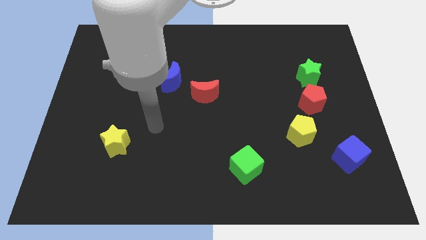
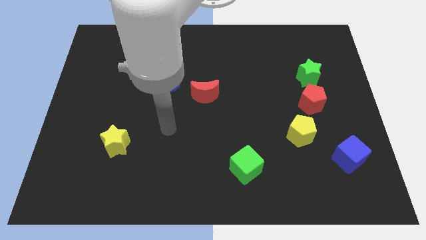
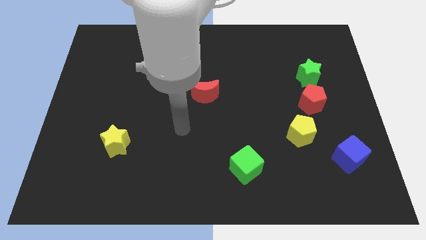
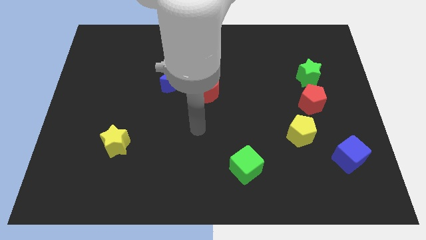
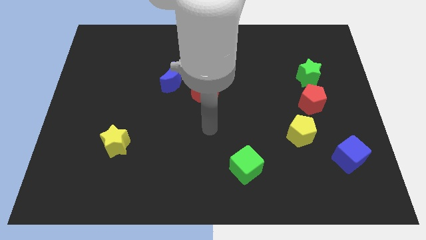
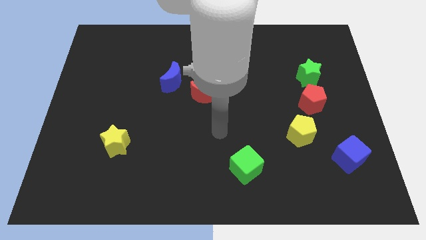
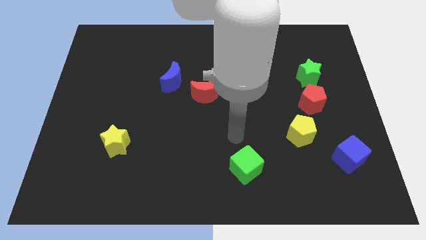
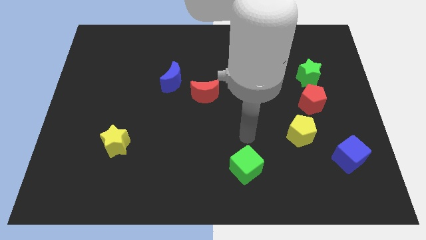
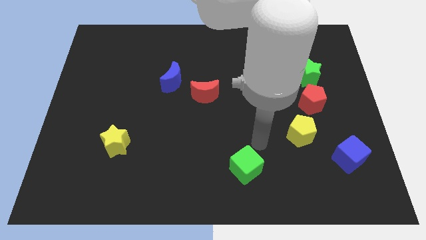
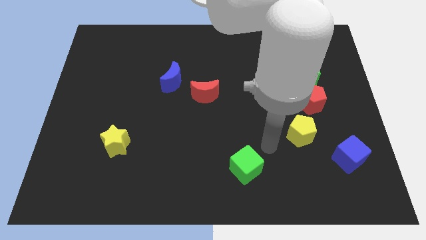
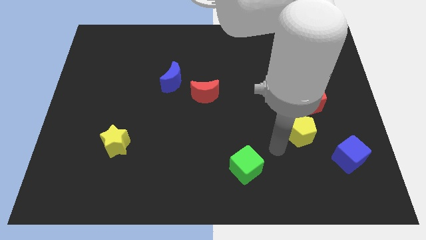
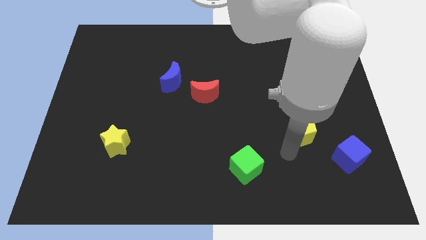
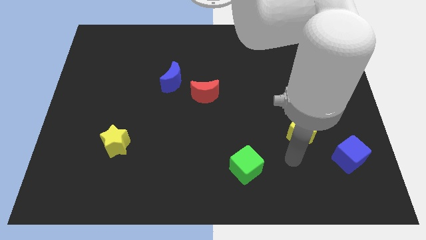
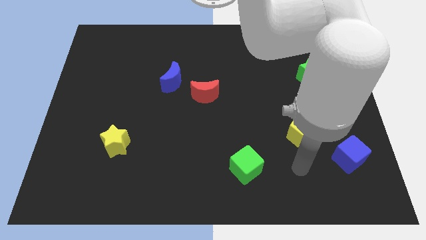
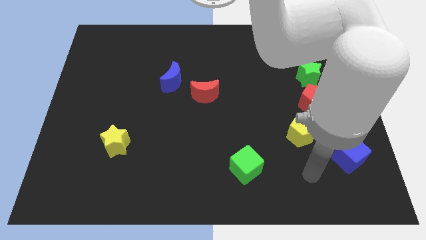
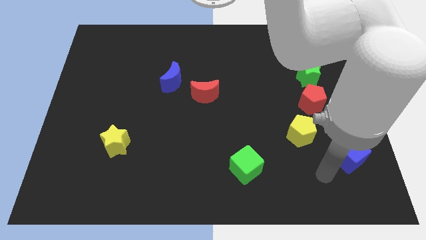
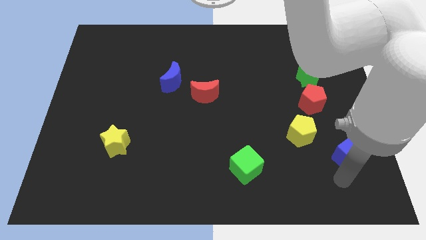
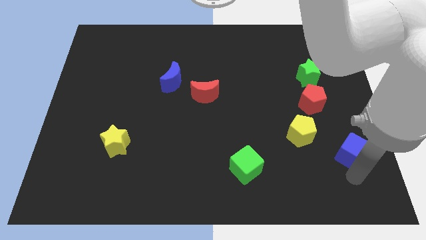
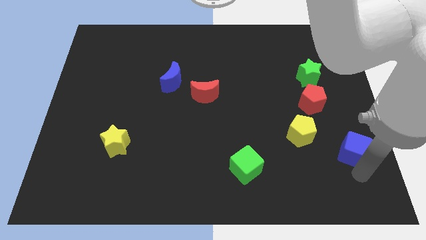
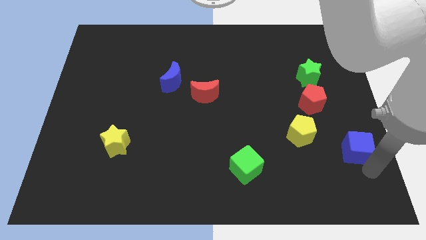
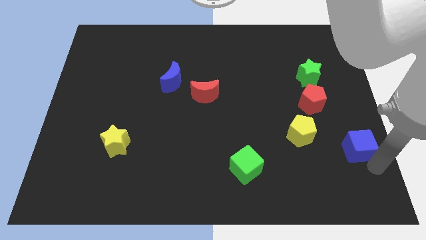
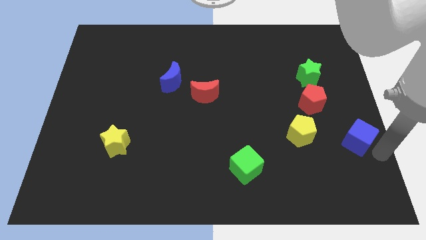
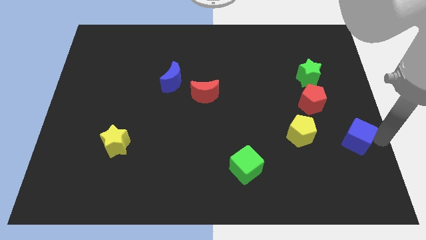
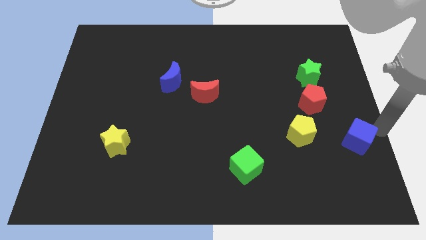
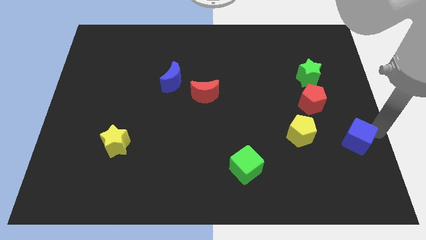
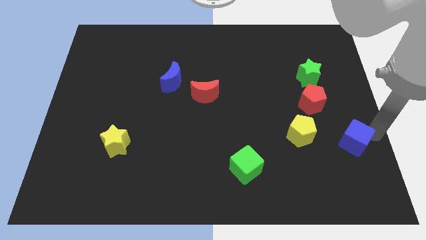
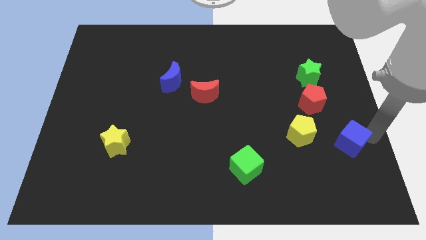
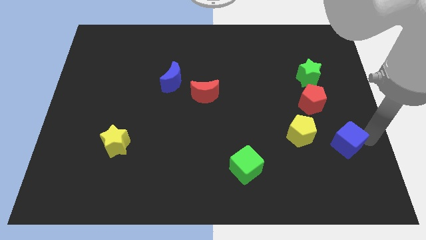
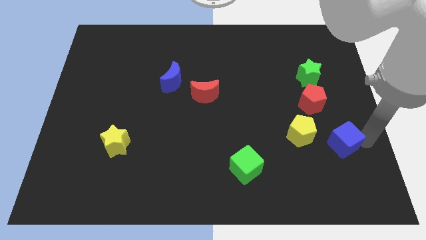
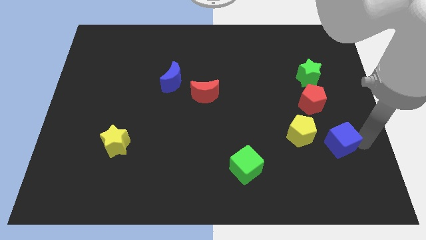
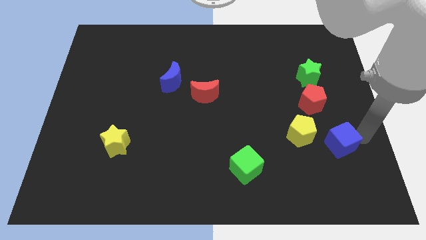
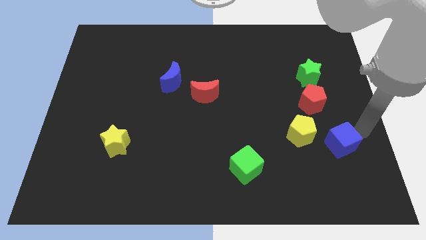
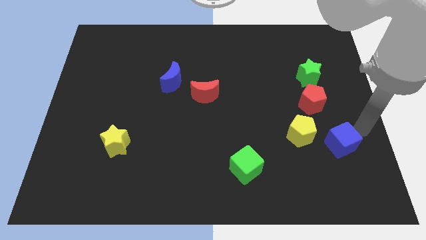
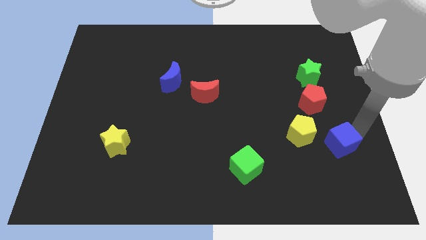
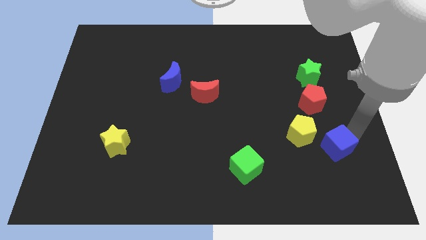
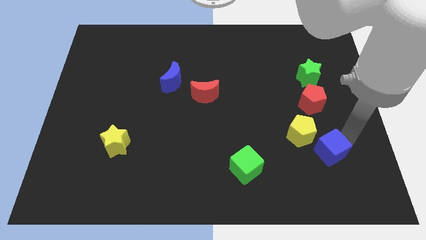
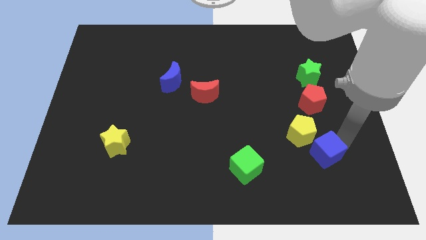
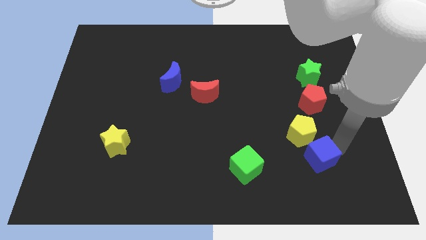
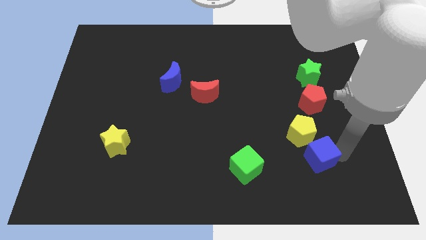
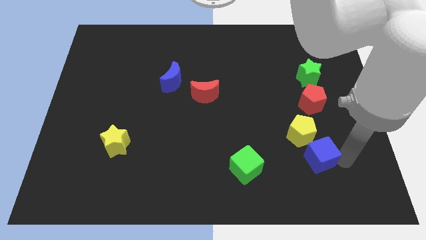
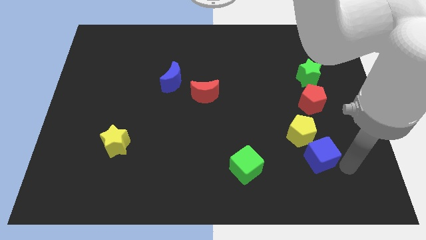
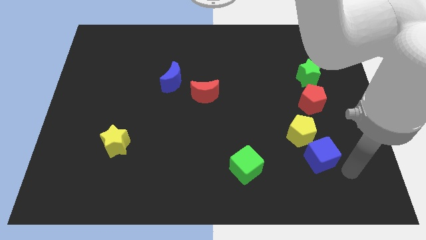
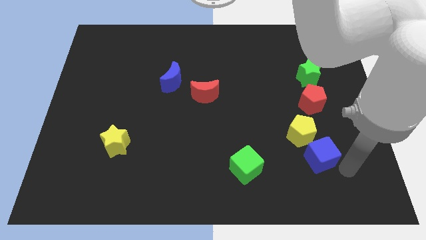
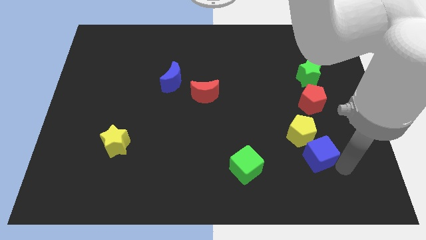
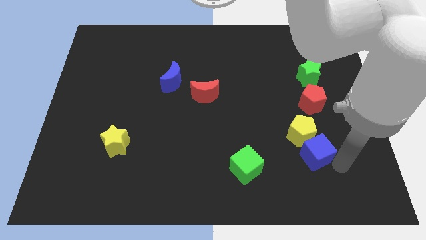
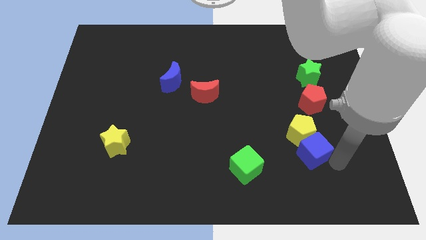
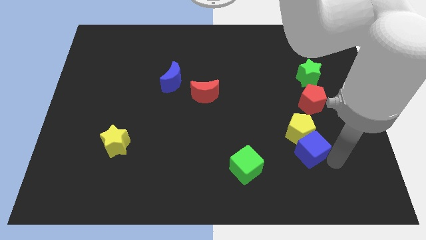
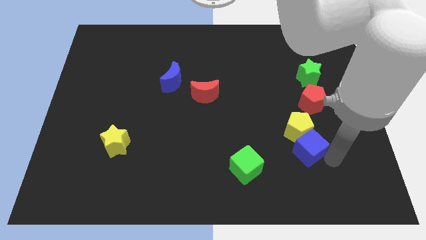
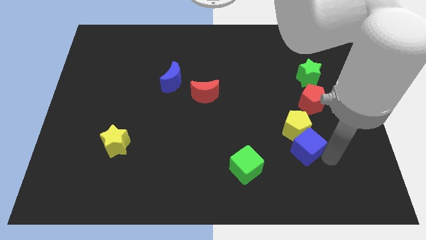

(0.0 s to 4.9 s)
slightly move the blue cube upwards and left

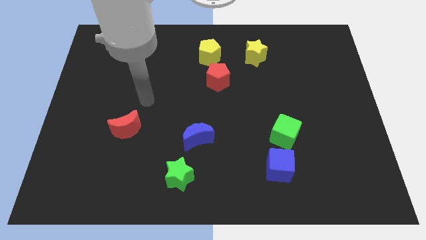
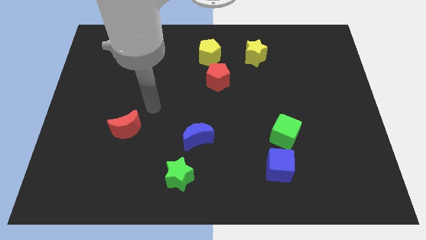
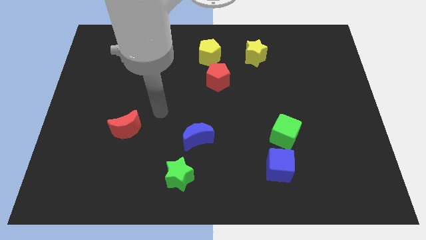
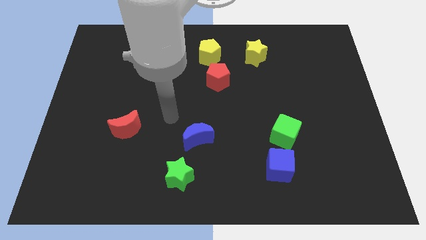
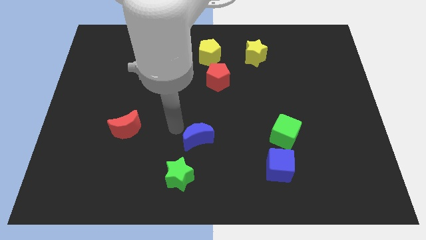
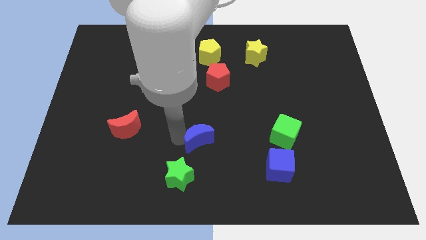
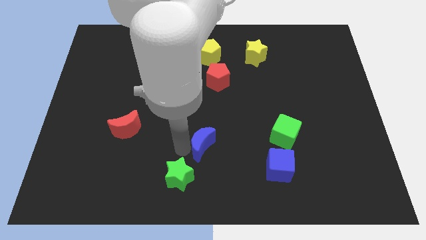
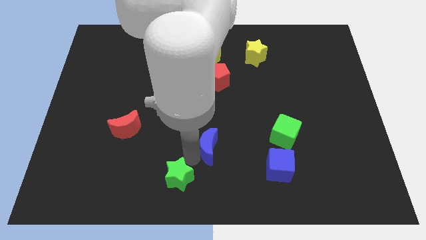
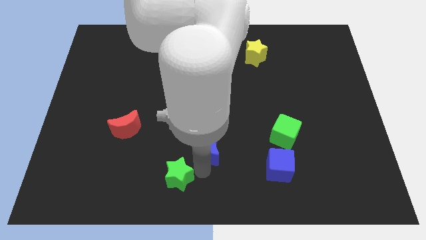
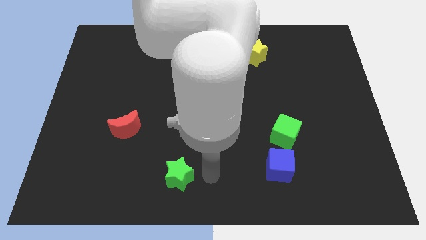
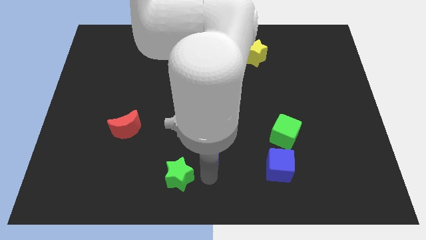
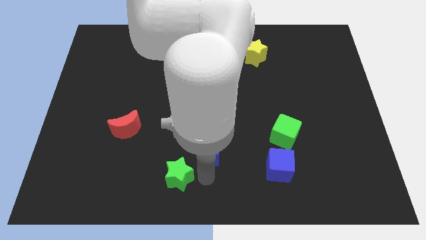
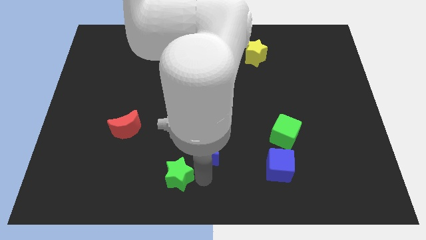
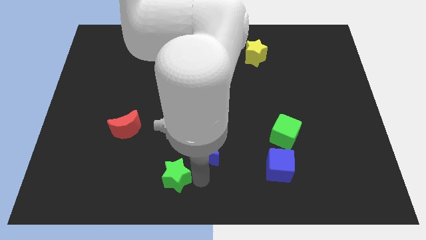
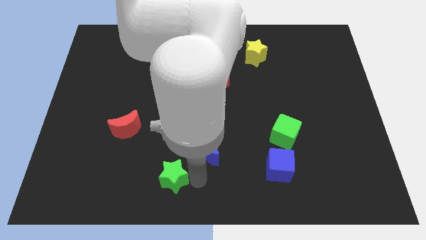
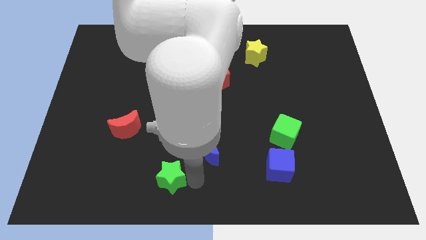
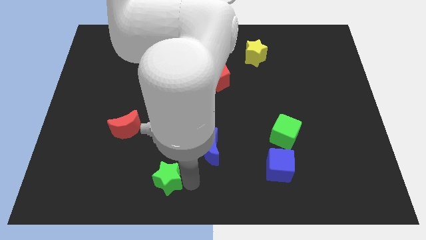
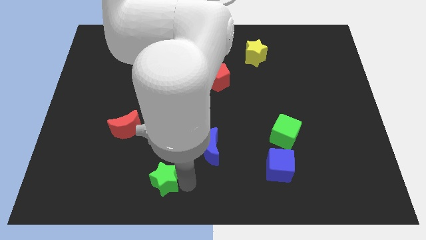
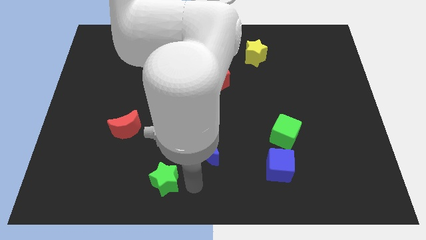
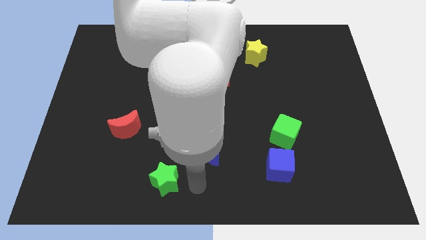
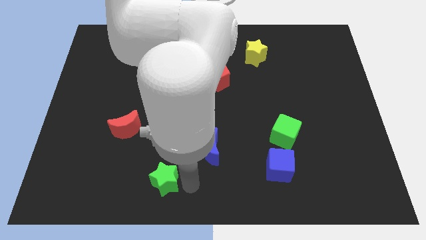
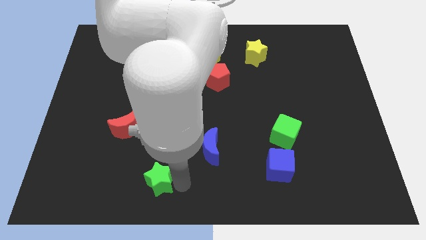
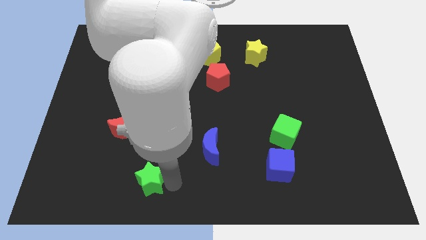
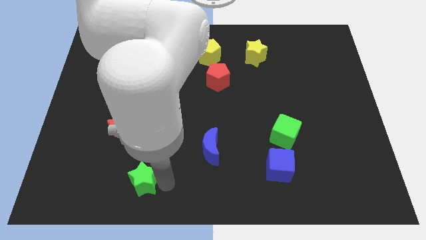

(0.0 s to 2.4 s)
push the green star left somewhat

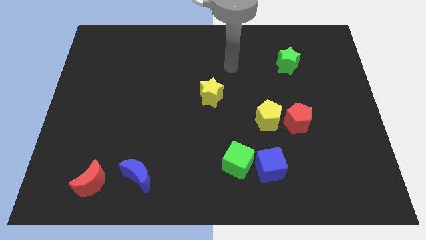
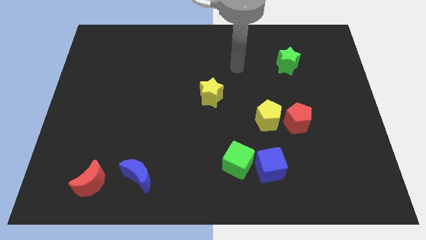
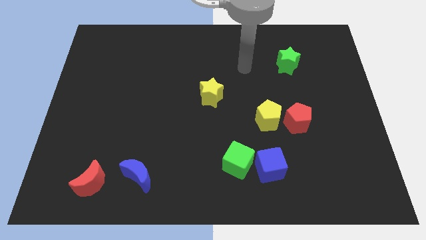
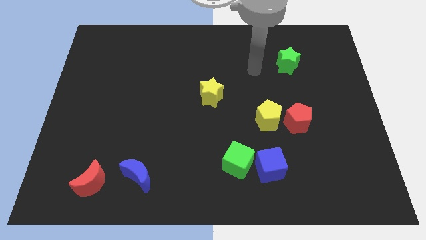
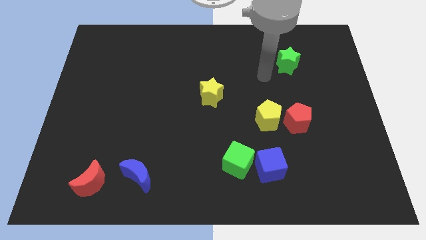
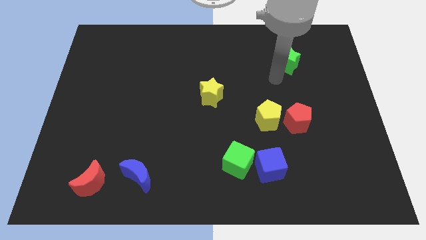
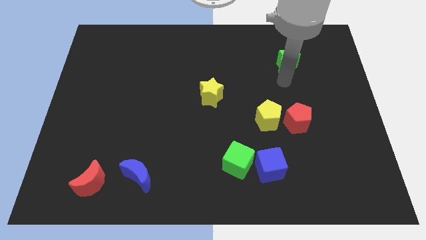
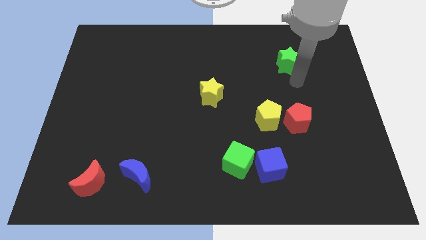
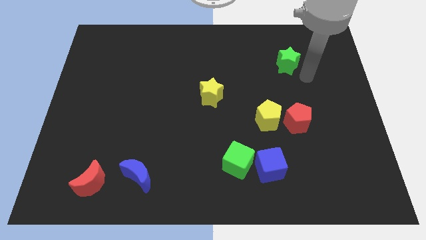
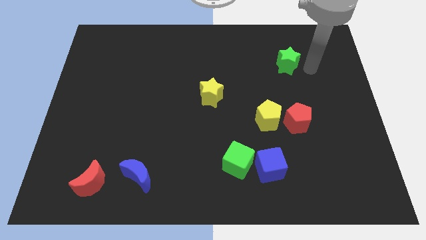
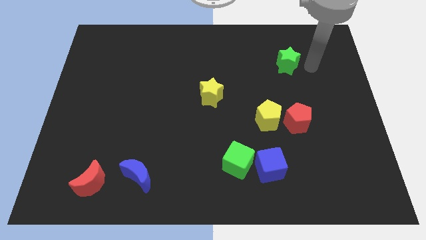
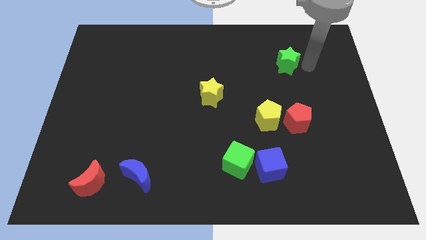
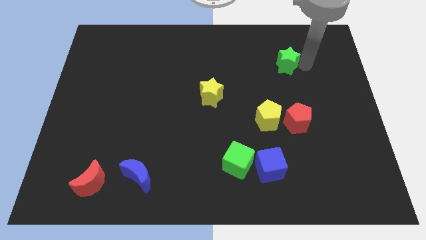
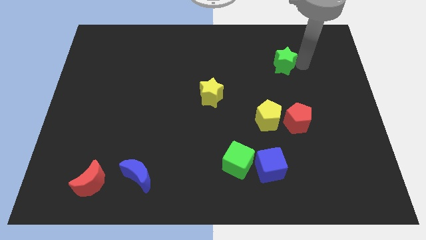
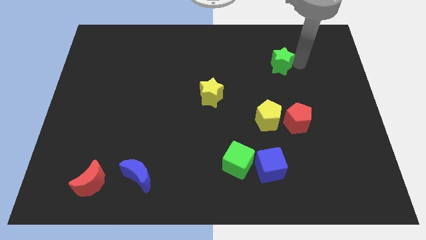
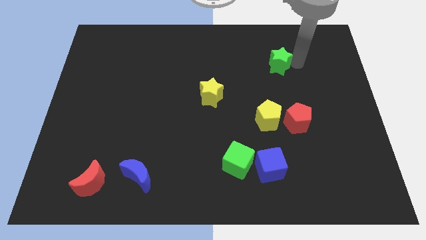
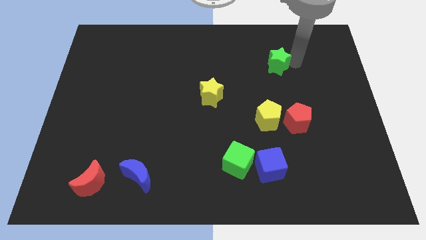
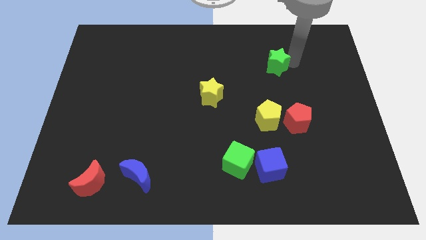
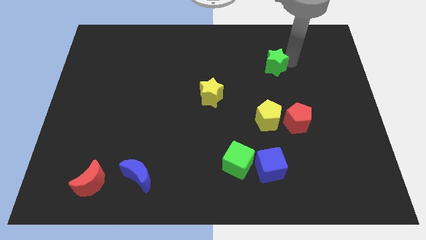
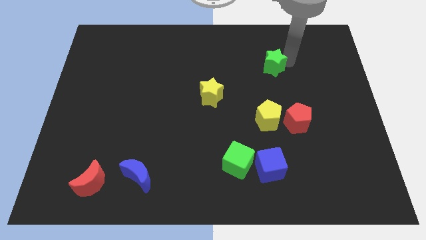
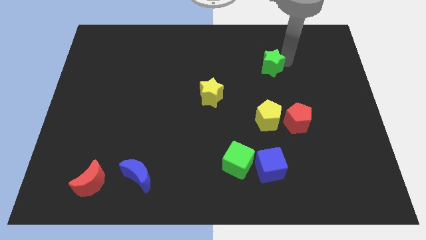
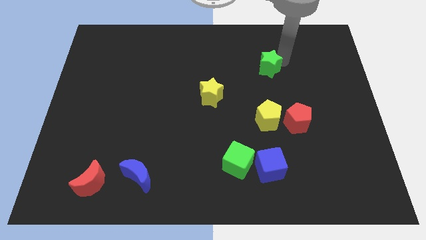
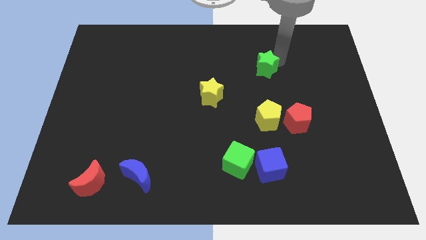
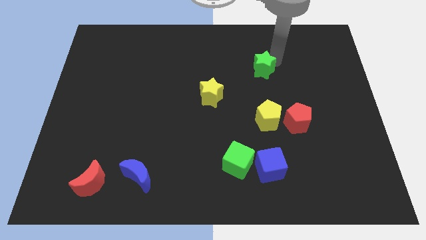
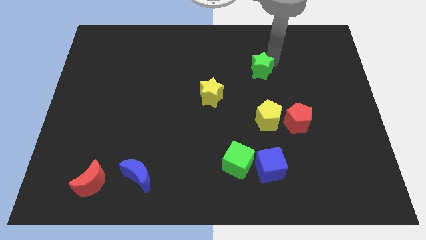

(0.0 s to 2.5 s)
slide the green star to the left a little
